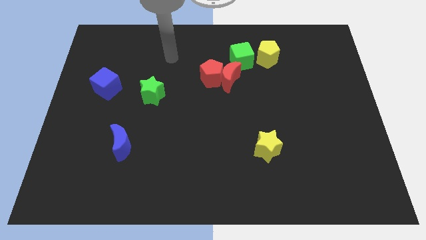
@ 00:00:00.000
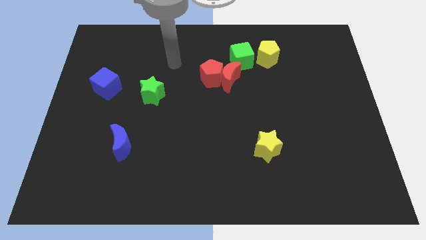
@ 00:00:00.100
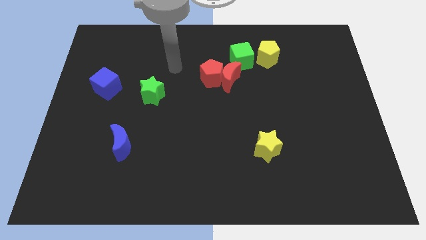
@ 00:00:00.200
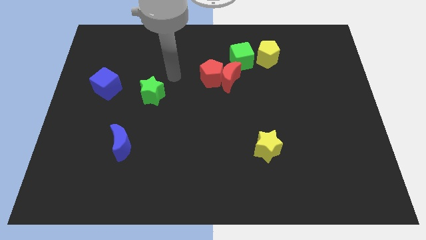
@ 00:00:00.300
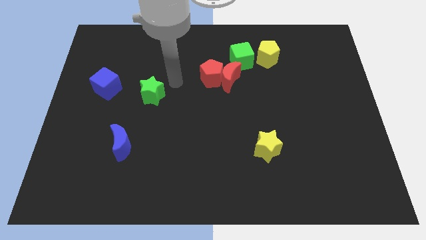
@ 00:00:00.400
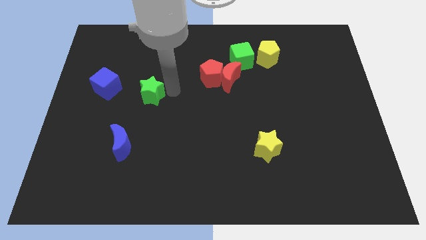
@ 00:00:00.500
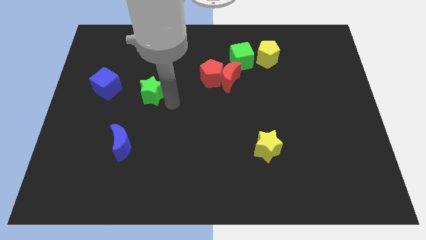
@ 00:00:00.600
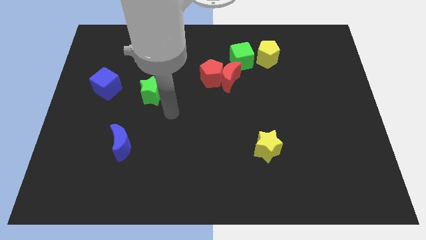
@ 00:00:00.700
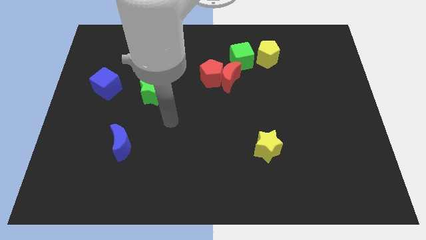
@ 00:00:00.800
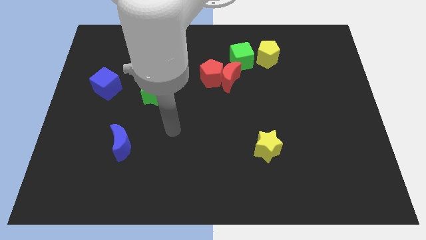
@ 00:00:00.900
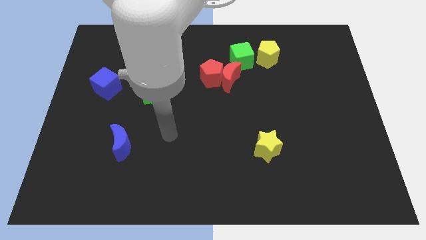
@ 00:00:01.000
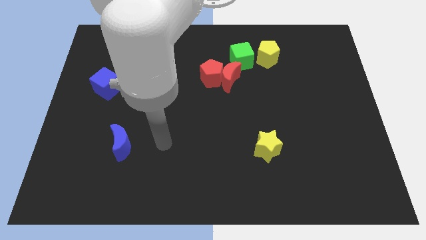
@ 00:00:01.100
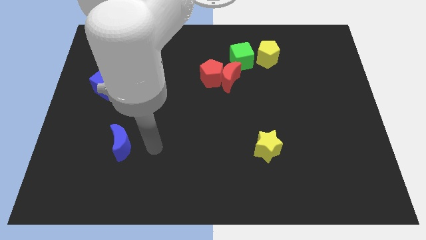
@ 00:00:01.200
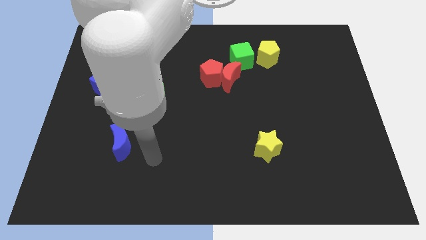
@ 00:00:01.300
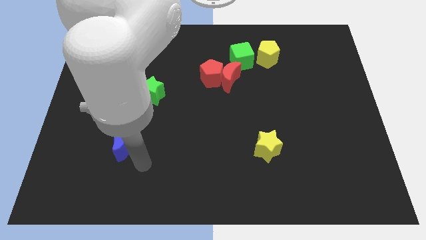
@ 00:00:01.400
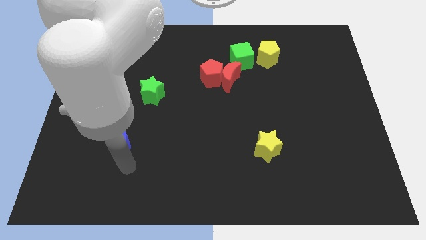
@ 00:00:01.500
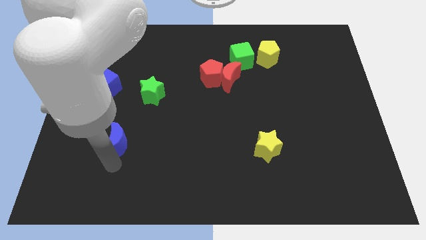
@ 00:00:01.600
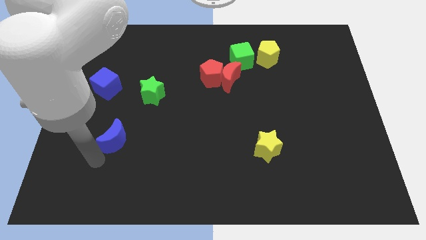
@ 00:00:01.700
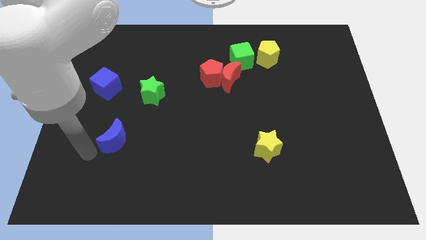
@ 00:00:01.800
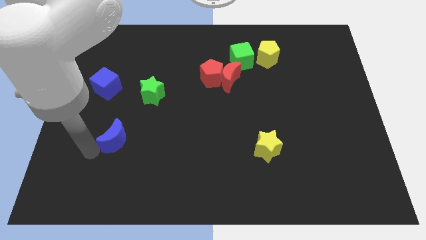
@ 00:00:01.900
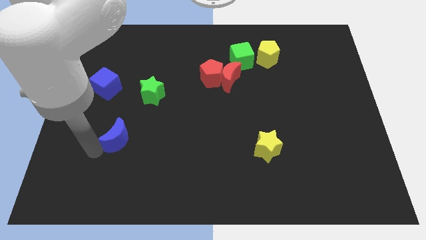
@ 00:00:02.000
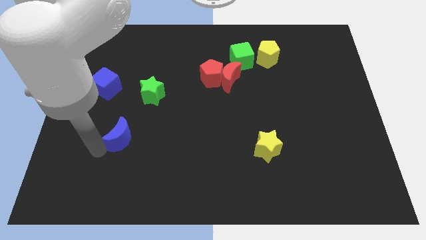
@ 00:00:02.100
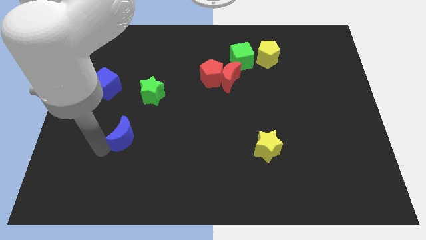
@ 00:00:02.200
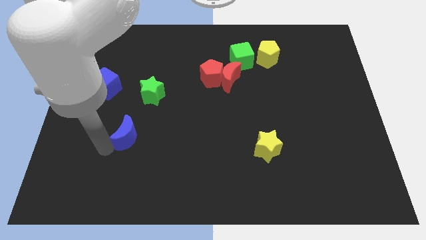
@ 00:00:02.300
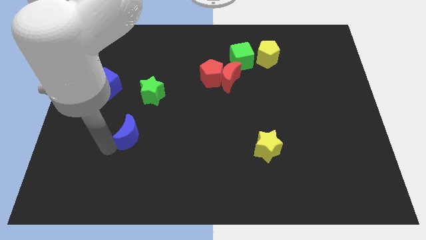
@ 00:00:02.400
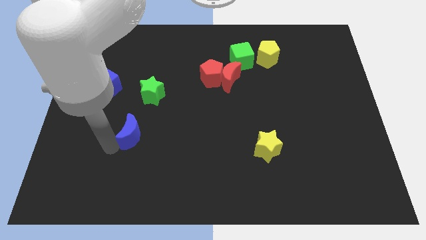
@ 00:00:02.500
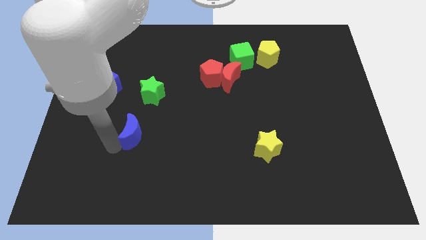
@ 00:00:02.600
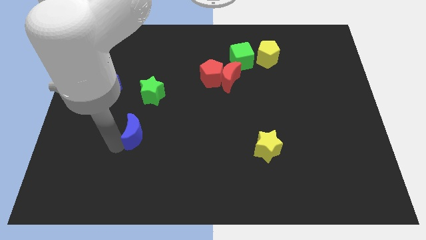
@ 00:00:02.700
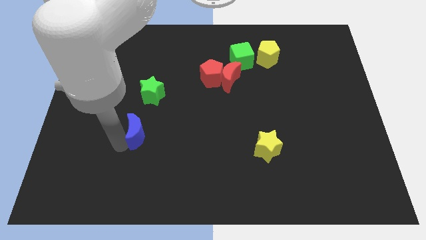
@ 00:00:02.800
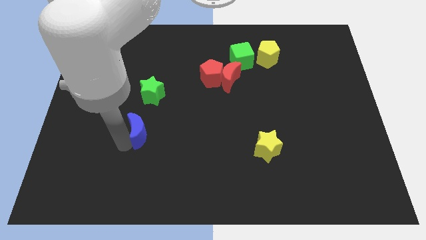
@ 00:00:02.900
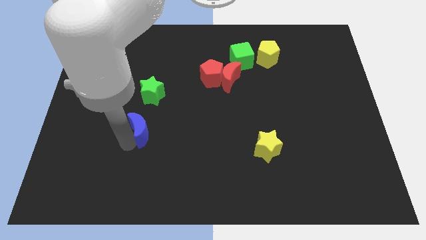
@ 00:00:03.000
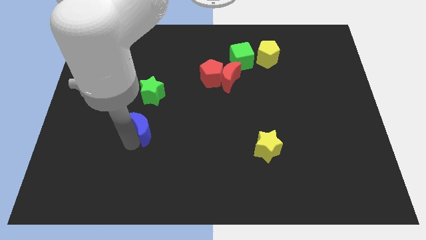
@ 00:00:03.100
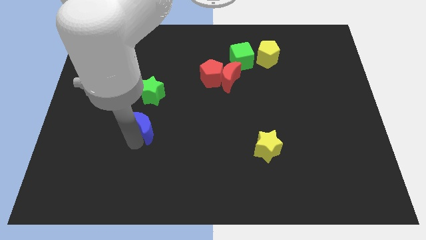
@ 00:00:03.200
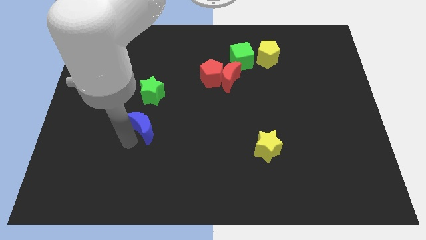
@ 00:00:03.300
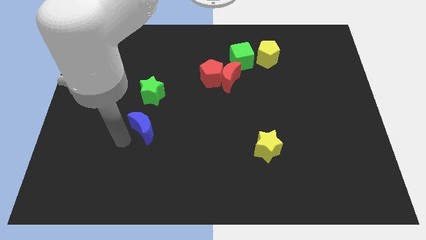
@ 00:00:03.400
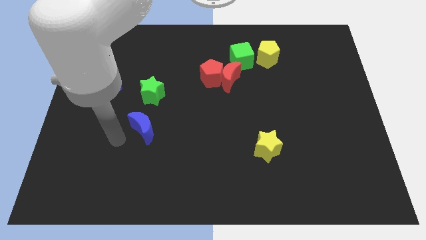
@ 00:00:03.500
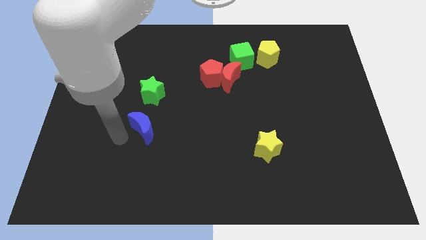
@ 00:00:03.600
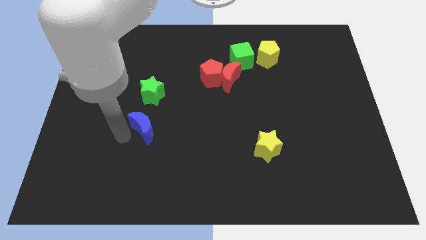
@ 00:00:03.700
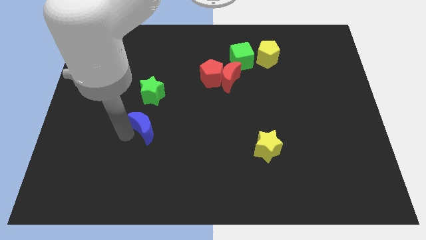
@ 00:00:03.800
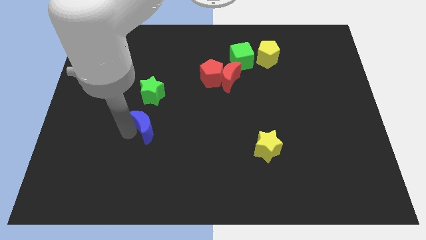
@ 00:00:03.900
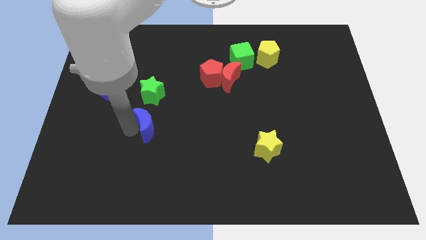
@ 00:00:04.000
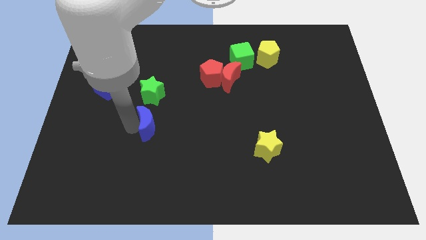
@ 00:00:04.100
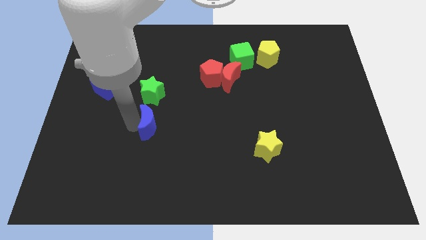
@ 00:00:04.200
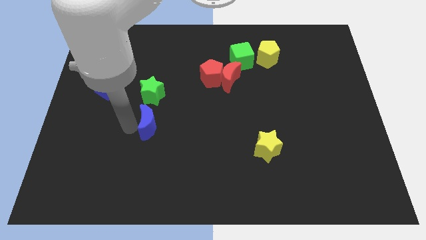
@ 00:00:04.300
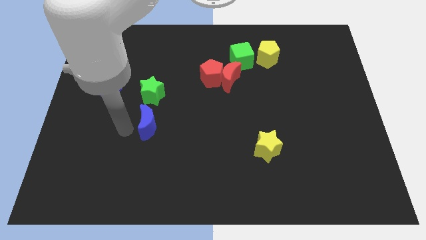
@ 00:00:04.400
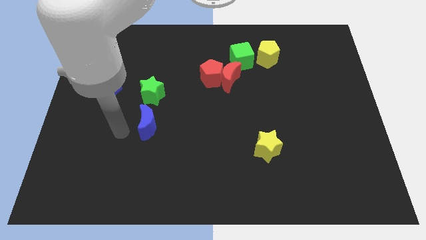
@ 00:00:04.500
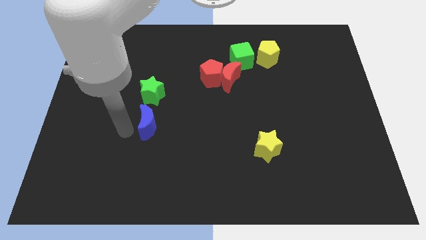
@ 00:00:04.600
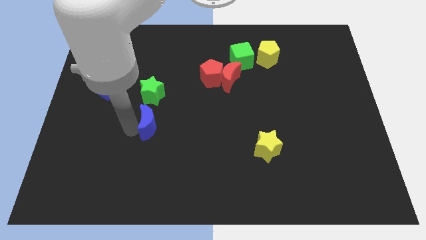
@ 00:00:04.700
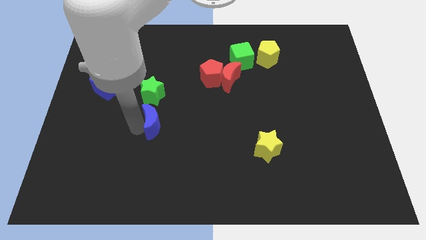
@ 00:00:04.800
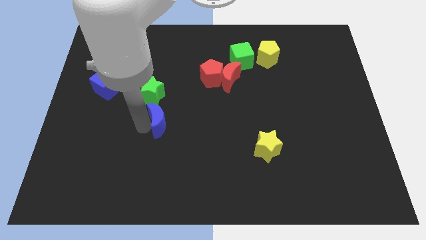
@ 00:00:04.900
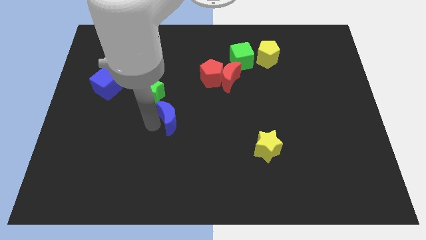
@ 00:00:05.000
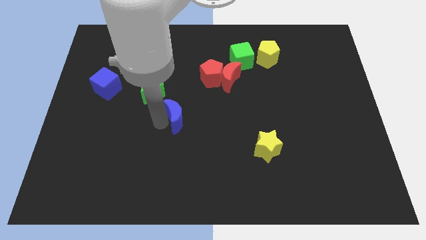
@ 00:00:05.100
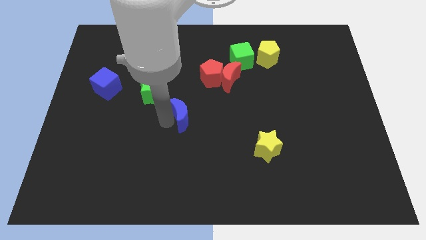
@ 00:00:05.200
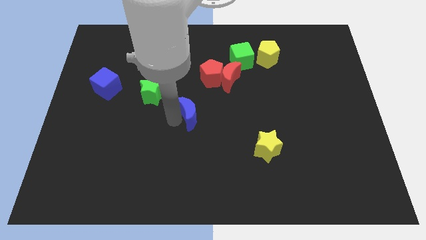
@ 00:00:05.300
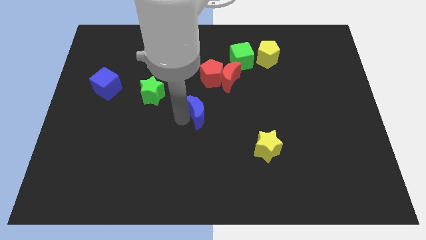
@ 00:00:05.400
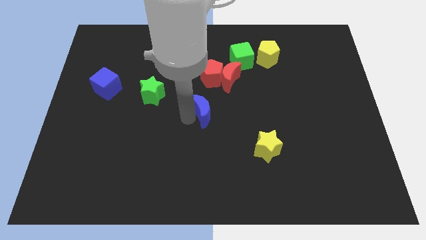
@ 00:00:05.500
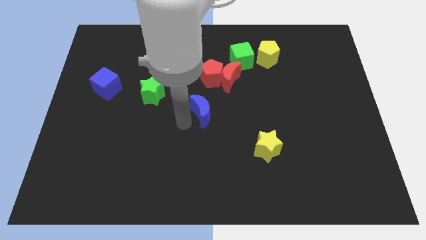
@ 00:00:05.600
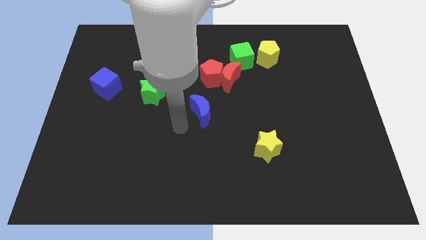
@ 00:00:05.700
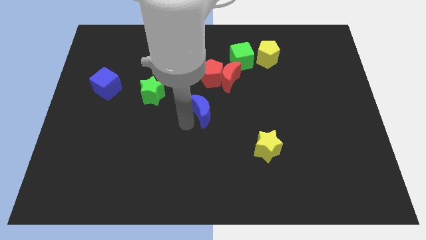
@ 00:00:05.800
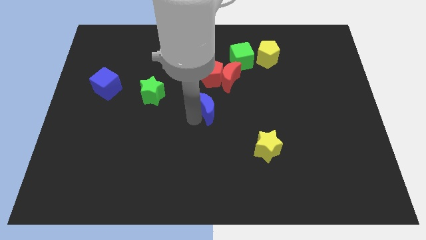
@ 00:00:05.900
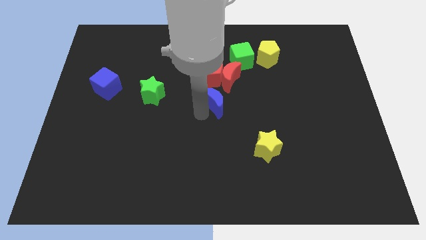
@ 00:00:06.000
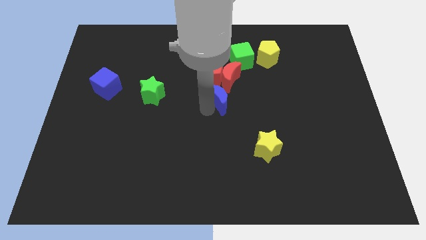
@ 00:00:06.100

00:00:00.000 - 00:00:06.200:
move the blue moon to the bottom right side of the red pentagon

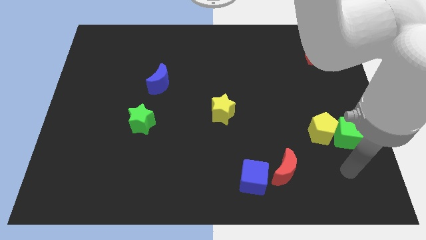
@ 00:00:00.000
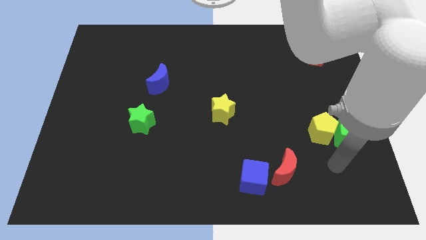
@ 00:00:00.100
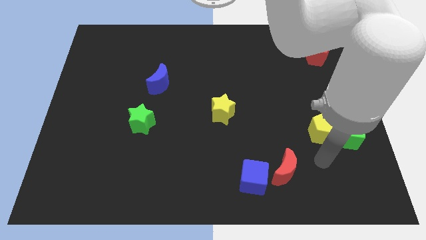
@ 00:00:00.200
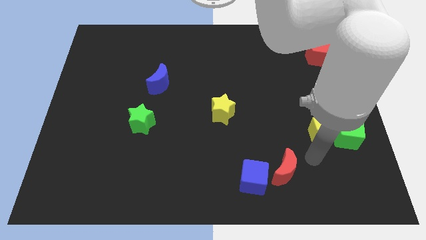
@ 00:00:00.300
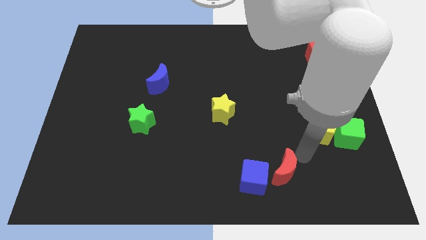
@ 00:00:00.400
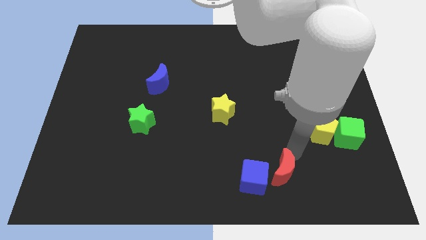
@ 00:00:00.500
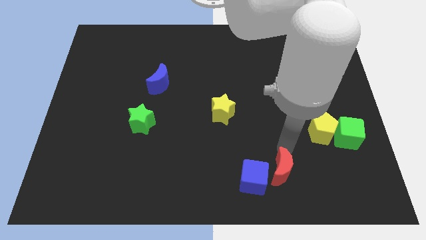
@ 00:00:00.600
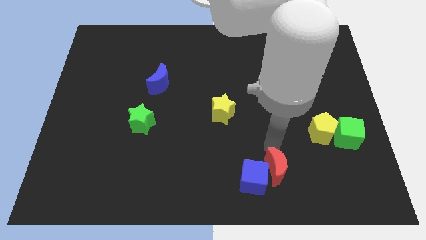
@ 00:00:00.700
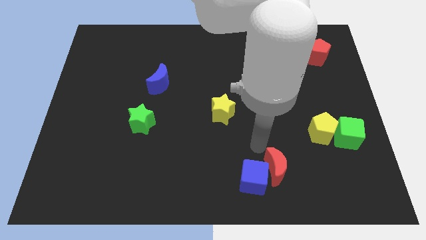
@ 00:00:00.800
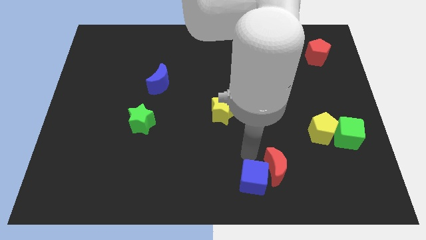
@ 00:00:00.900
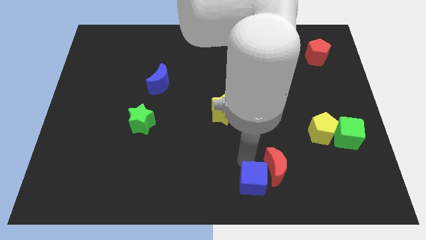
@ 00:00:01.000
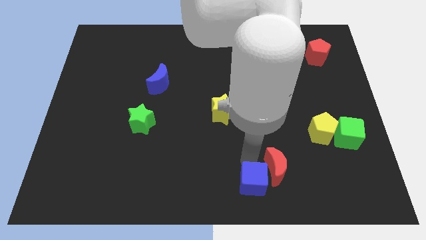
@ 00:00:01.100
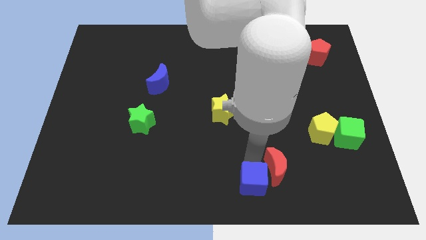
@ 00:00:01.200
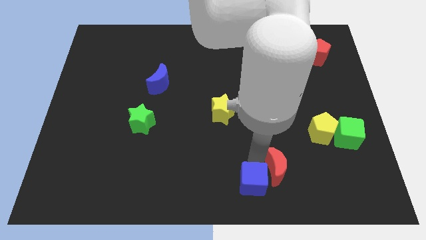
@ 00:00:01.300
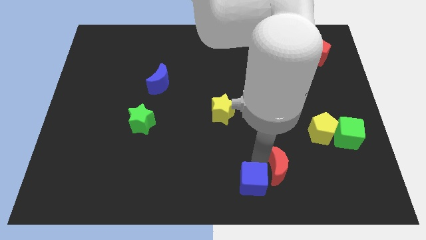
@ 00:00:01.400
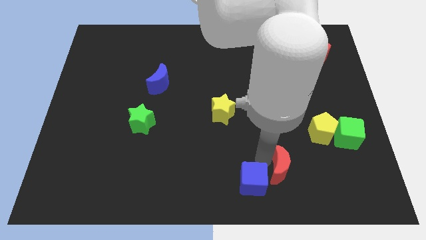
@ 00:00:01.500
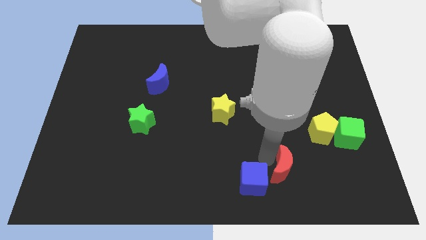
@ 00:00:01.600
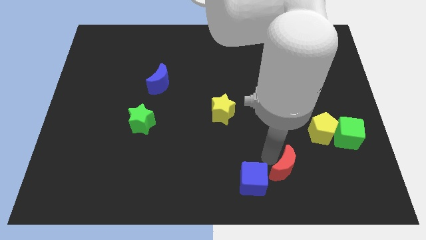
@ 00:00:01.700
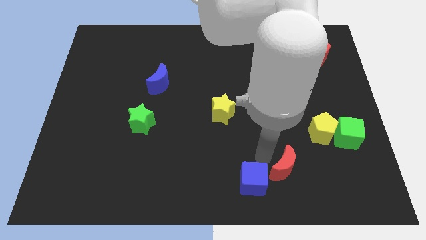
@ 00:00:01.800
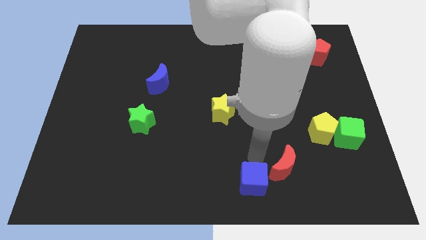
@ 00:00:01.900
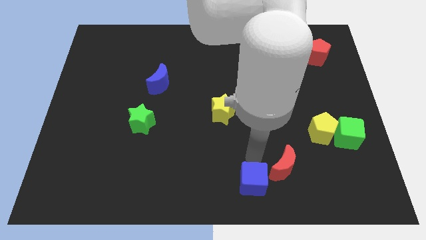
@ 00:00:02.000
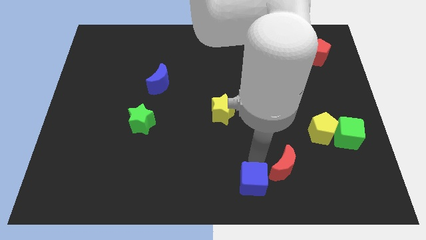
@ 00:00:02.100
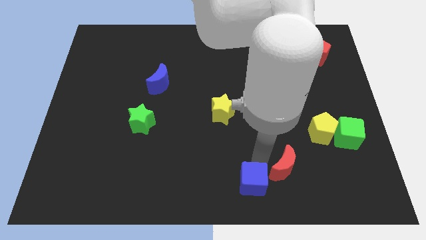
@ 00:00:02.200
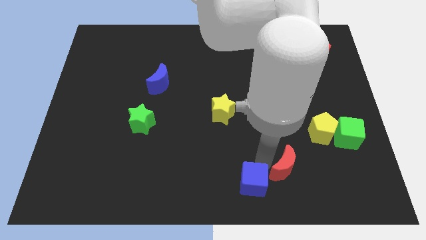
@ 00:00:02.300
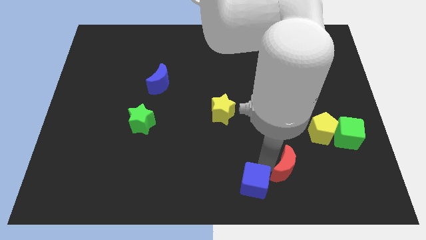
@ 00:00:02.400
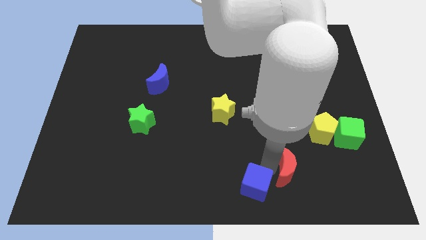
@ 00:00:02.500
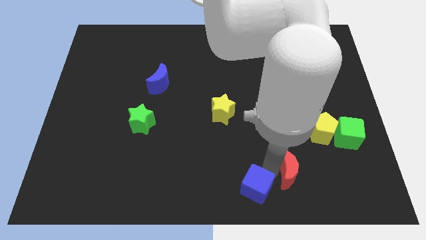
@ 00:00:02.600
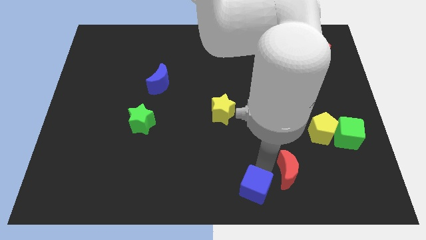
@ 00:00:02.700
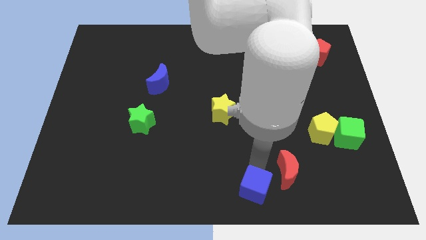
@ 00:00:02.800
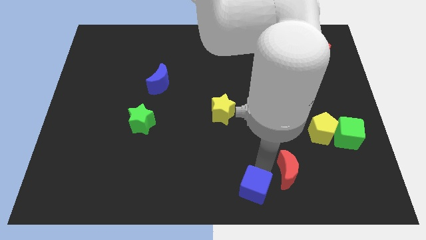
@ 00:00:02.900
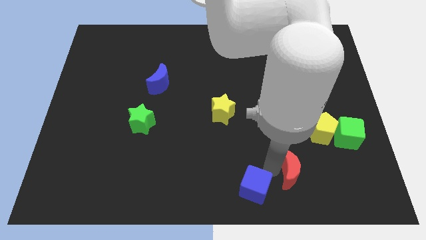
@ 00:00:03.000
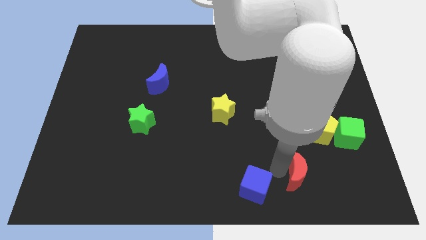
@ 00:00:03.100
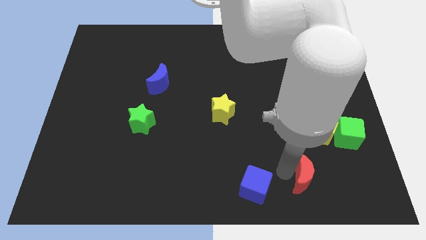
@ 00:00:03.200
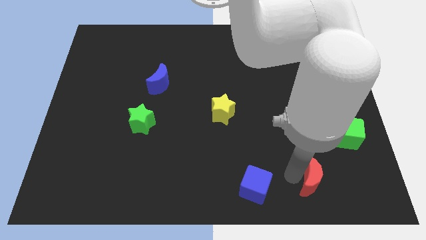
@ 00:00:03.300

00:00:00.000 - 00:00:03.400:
slide the red moon below the yellow pentagon
